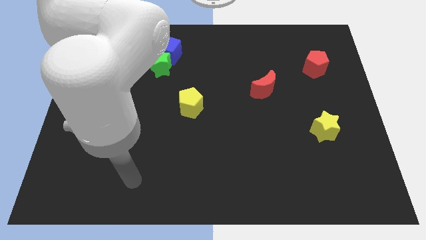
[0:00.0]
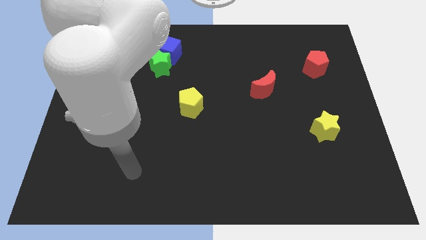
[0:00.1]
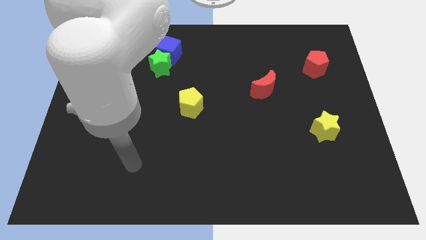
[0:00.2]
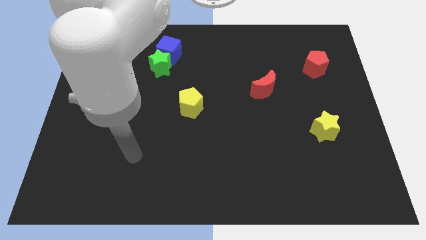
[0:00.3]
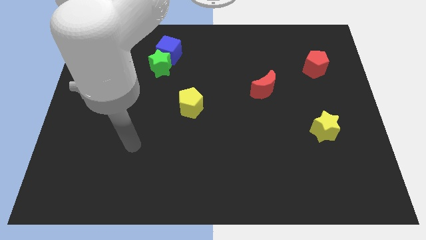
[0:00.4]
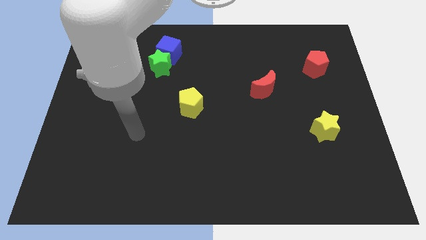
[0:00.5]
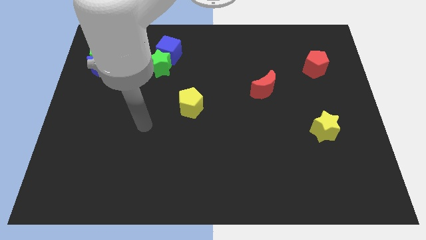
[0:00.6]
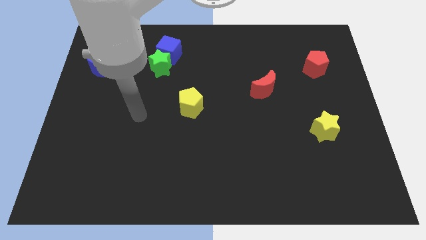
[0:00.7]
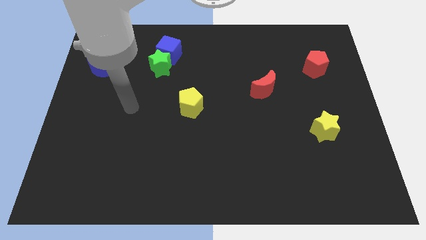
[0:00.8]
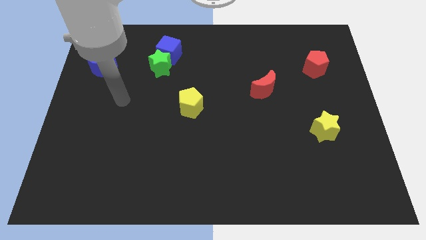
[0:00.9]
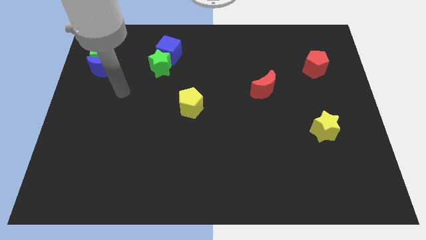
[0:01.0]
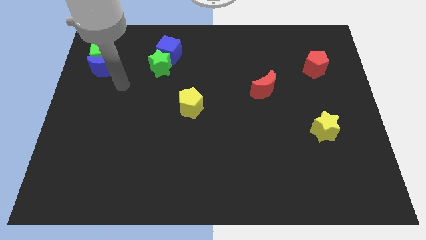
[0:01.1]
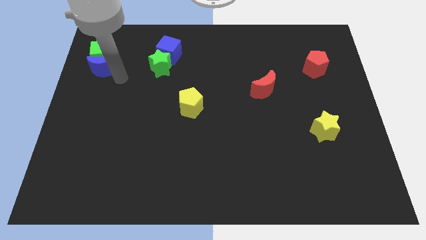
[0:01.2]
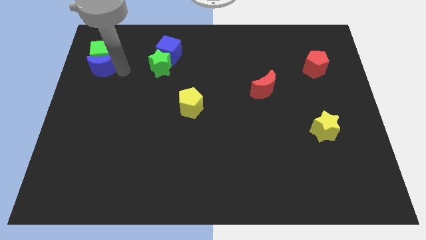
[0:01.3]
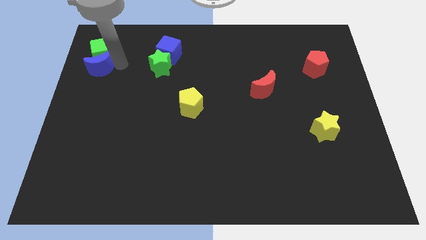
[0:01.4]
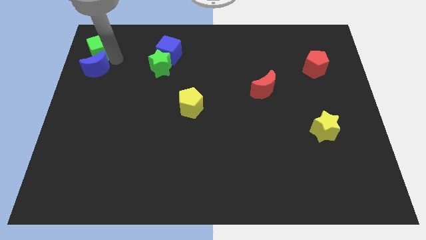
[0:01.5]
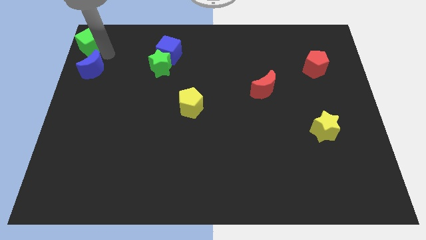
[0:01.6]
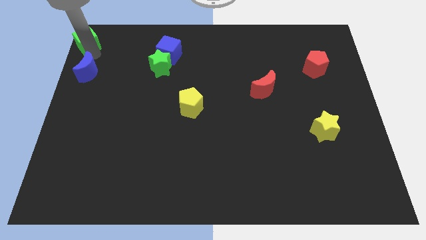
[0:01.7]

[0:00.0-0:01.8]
separate the blue moon from the green cube

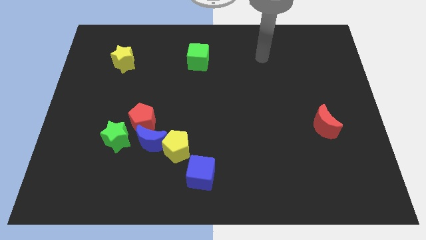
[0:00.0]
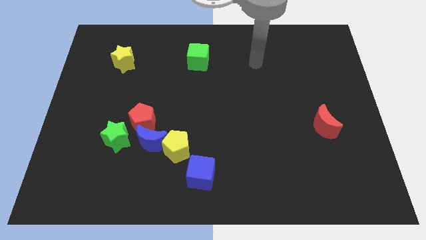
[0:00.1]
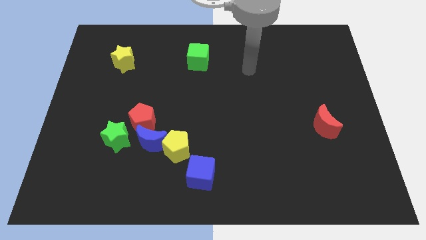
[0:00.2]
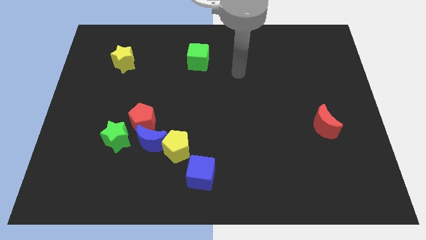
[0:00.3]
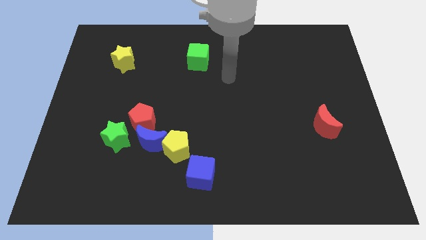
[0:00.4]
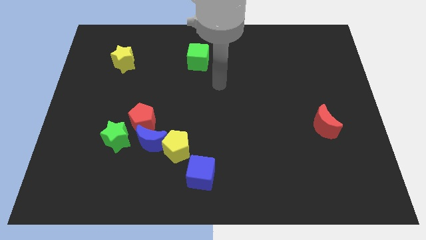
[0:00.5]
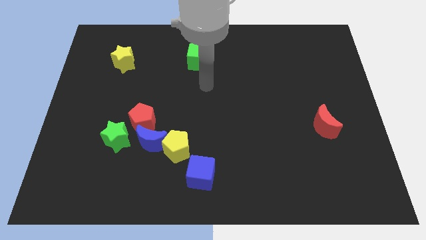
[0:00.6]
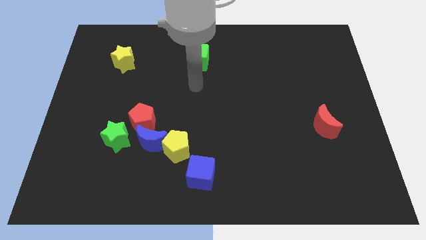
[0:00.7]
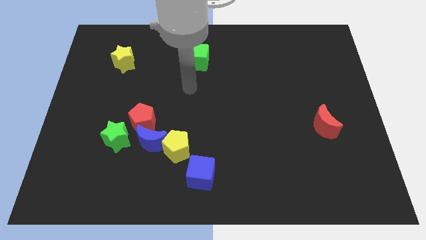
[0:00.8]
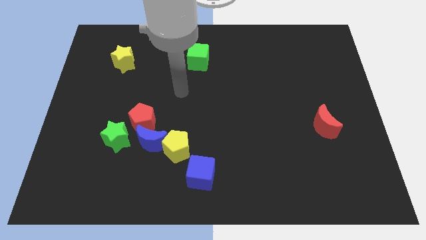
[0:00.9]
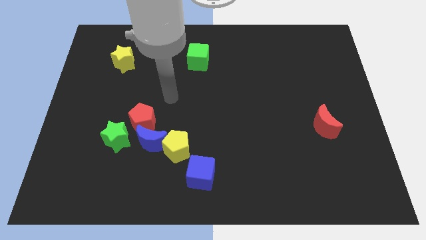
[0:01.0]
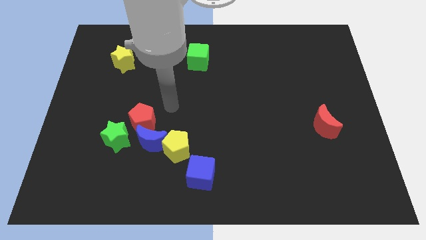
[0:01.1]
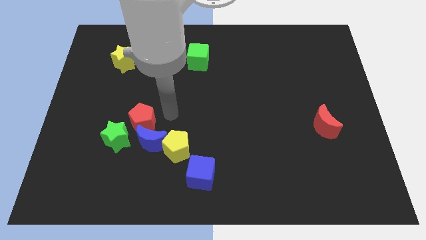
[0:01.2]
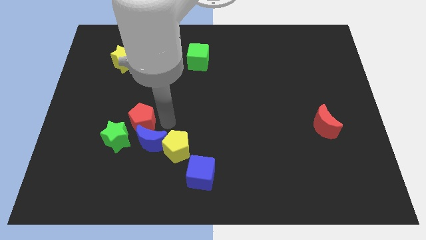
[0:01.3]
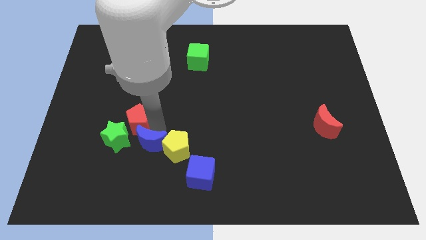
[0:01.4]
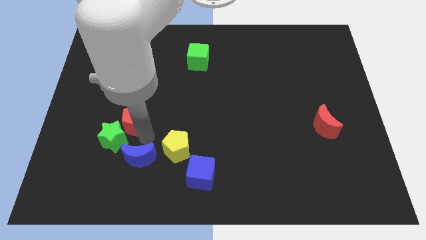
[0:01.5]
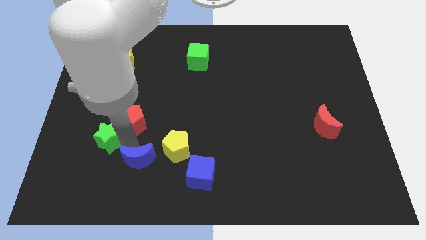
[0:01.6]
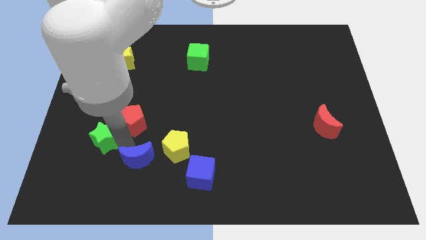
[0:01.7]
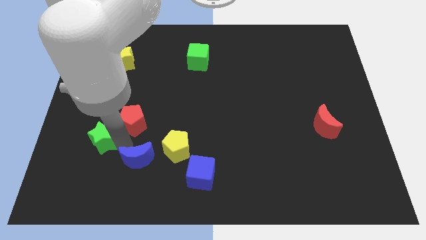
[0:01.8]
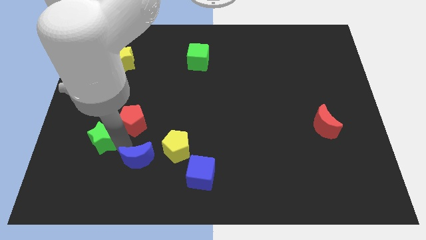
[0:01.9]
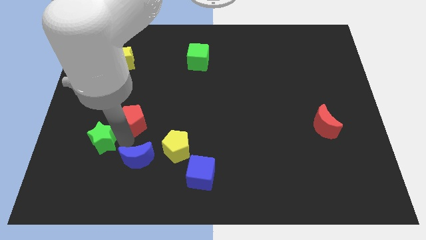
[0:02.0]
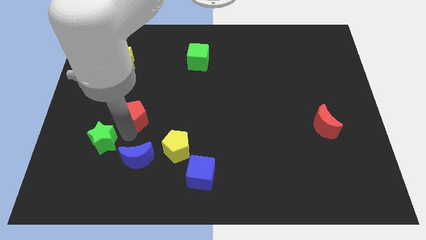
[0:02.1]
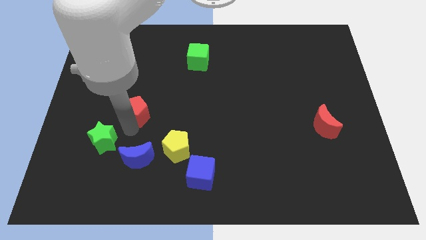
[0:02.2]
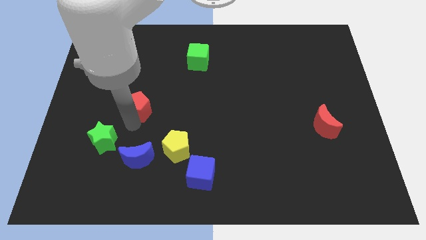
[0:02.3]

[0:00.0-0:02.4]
separate the red pentagon from the blue moon and green star

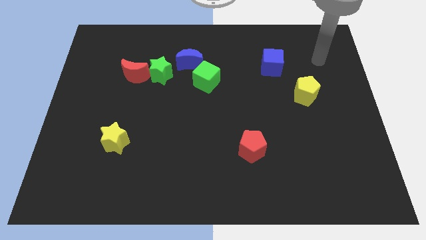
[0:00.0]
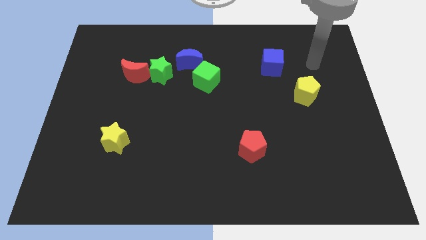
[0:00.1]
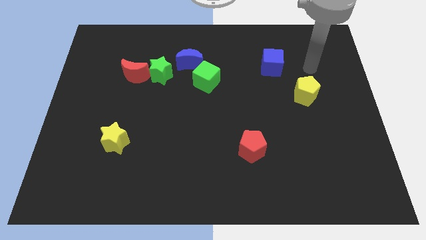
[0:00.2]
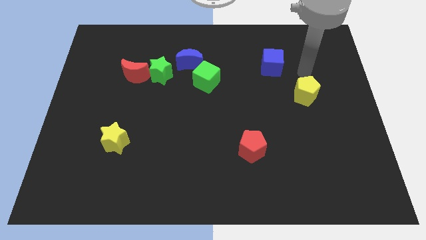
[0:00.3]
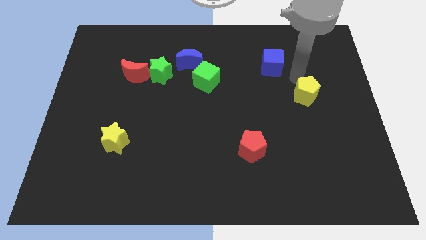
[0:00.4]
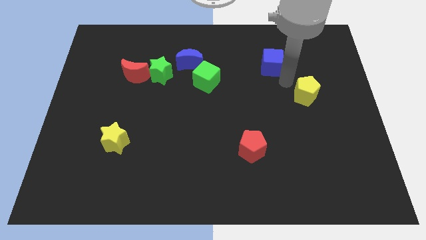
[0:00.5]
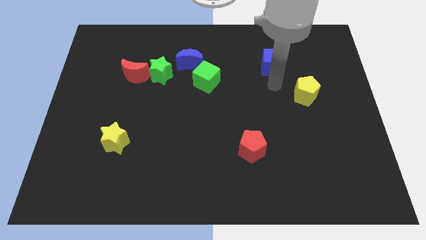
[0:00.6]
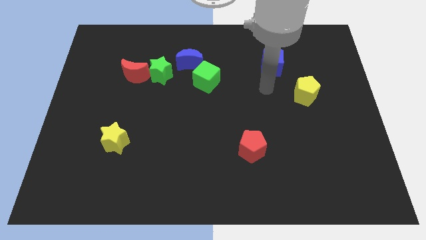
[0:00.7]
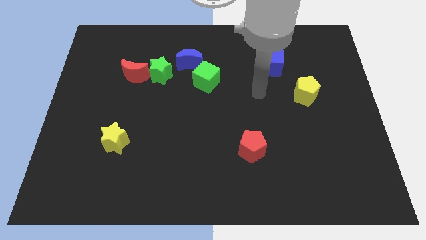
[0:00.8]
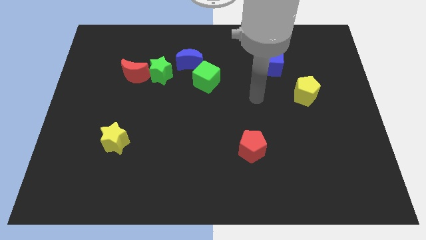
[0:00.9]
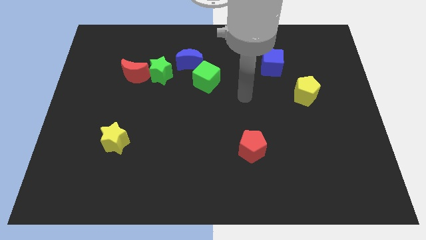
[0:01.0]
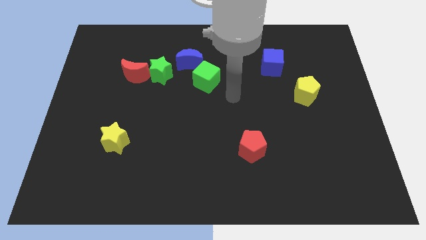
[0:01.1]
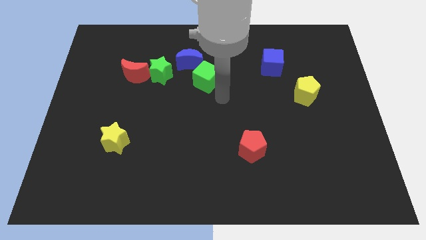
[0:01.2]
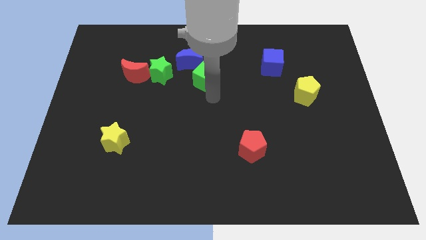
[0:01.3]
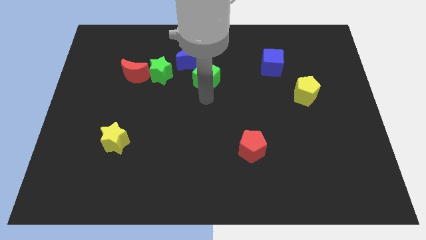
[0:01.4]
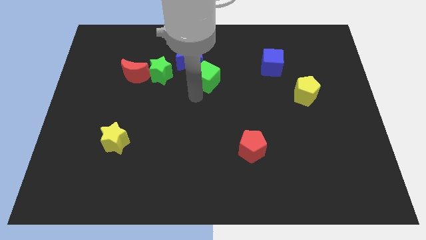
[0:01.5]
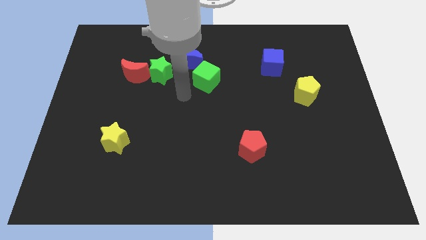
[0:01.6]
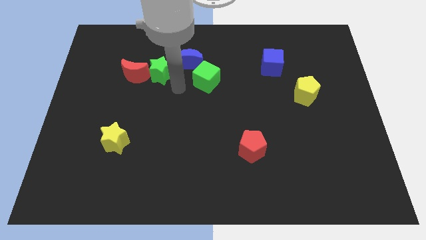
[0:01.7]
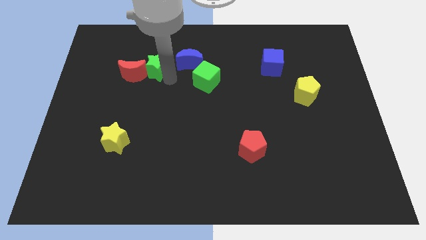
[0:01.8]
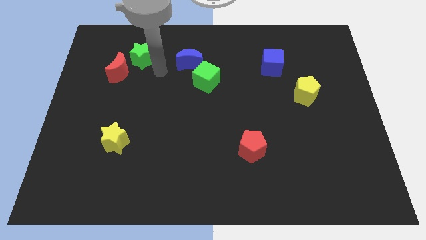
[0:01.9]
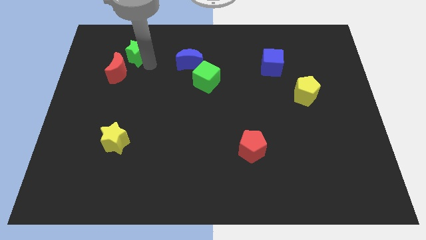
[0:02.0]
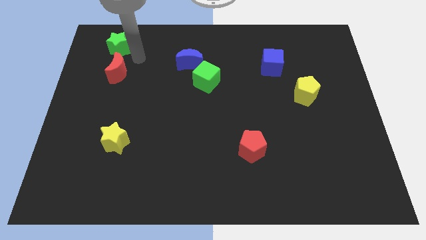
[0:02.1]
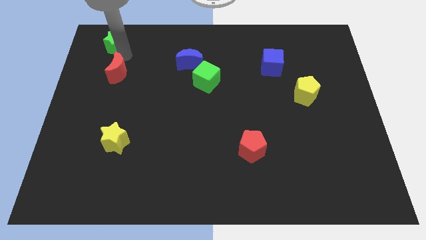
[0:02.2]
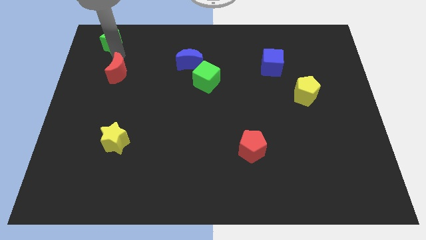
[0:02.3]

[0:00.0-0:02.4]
pull the red moon apart from the green star

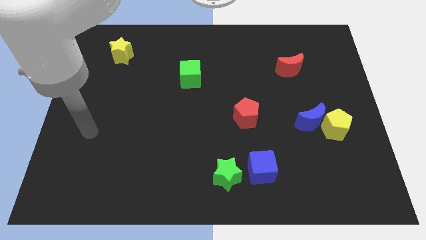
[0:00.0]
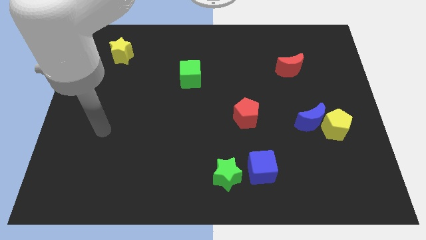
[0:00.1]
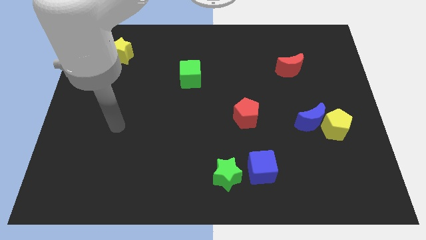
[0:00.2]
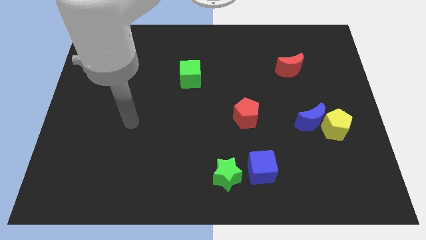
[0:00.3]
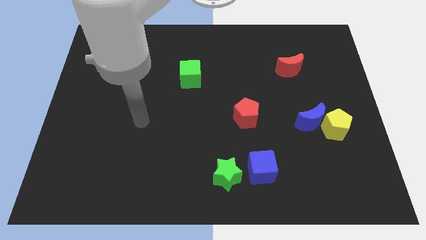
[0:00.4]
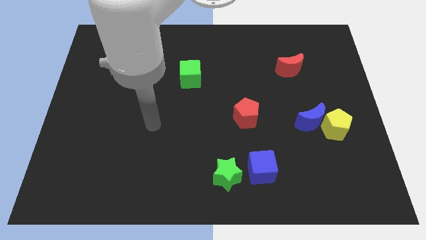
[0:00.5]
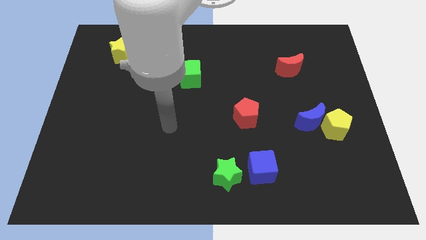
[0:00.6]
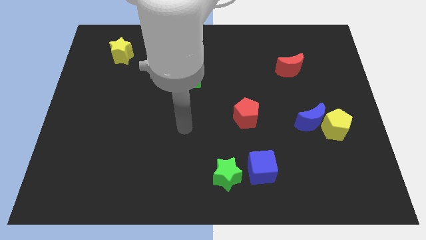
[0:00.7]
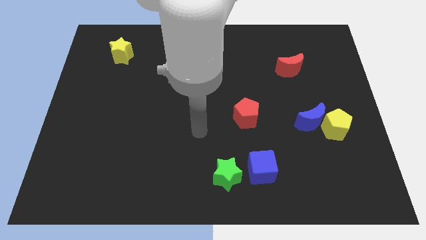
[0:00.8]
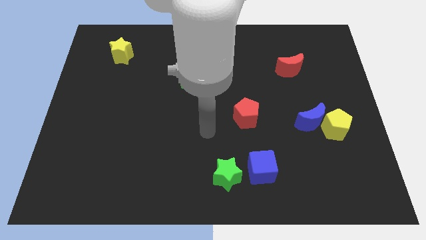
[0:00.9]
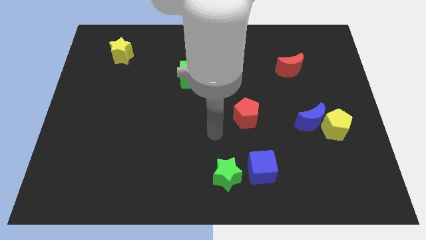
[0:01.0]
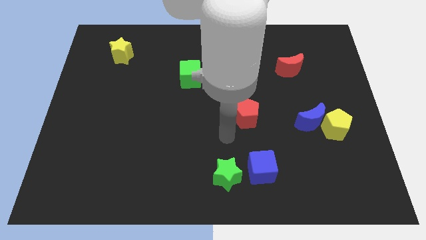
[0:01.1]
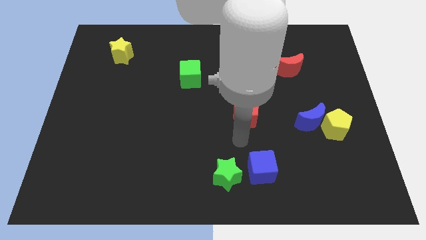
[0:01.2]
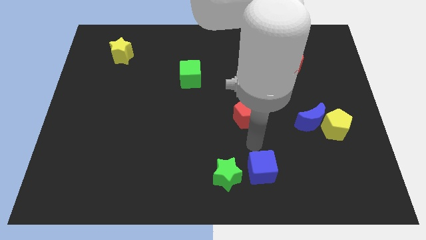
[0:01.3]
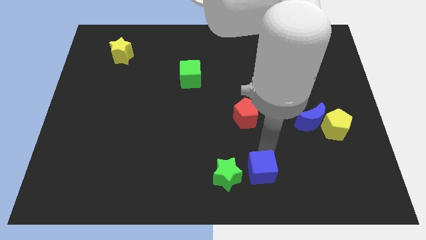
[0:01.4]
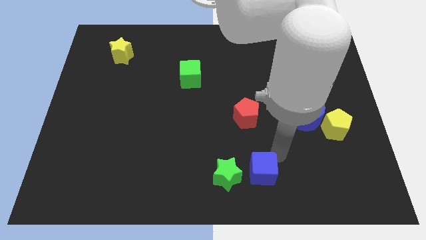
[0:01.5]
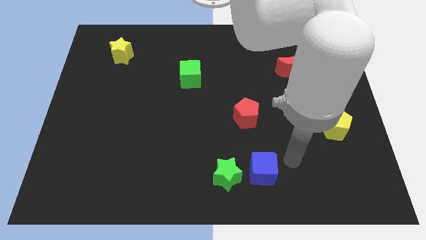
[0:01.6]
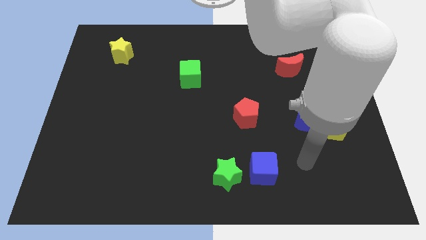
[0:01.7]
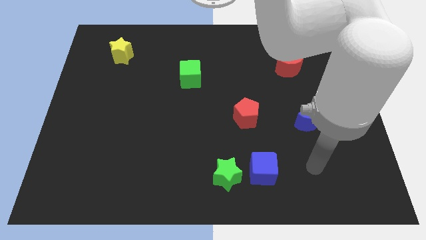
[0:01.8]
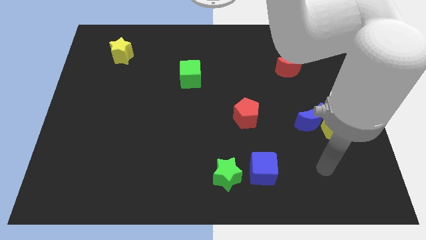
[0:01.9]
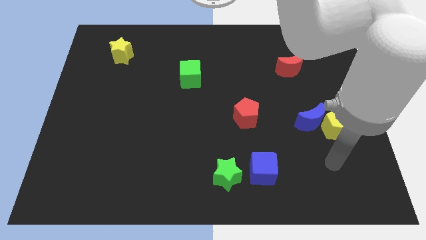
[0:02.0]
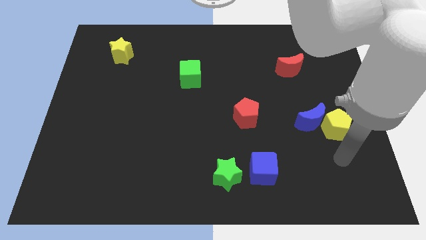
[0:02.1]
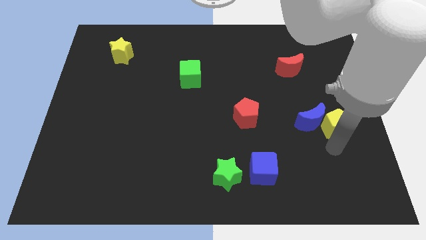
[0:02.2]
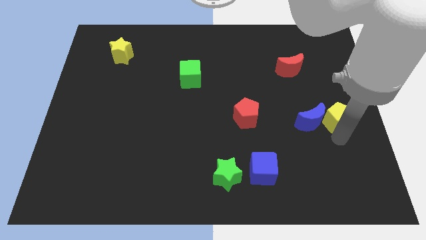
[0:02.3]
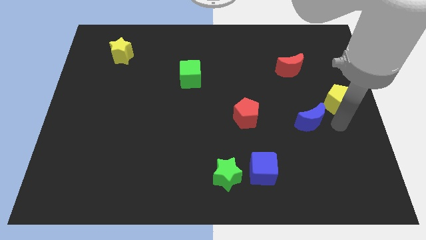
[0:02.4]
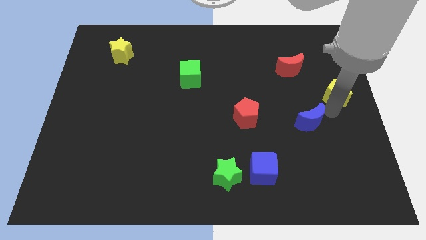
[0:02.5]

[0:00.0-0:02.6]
move the blue moon away from the yellow pentagon

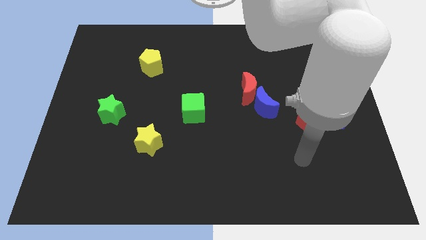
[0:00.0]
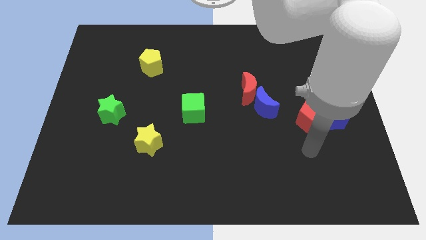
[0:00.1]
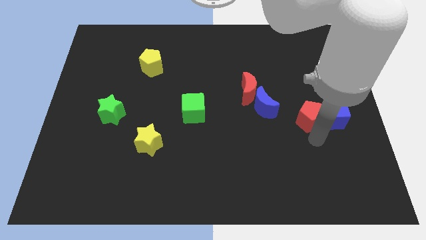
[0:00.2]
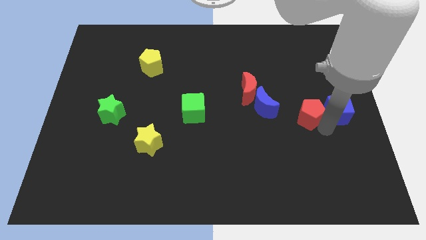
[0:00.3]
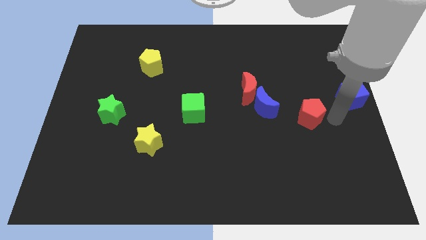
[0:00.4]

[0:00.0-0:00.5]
separate the red pentagon from the blue cube
